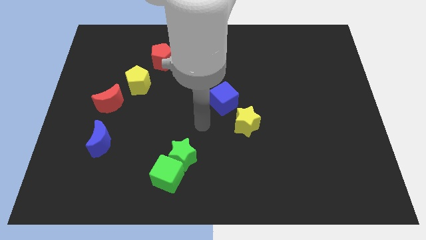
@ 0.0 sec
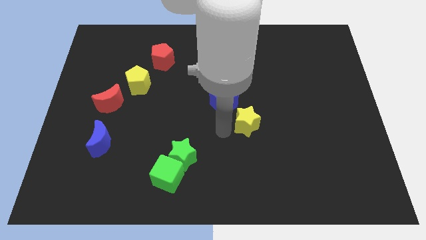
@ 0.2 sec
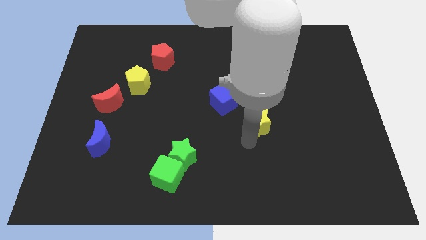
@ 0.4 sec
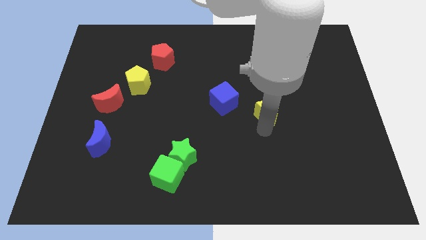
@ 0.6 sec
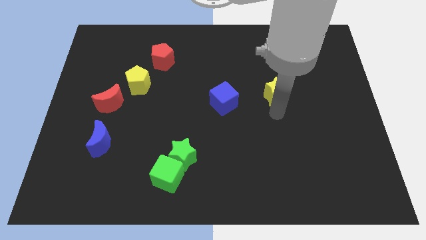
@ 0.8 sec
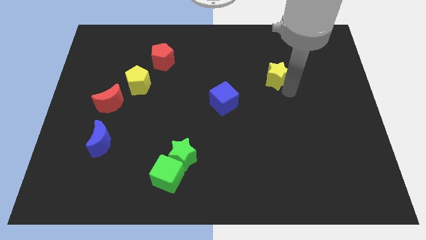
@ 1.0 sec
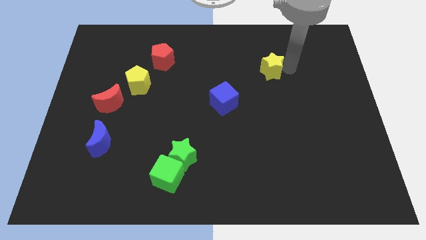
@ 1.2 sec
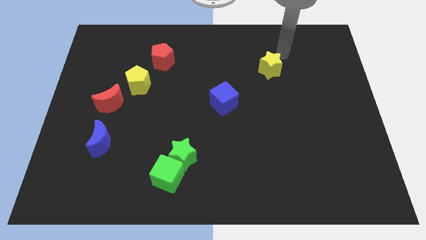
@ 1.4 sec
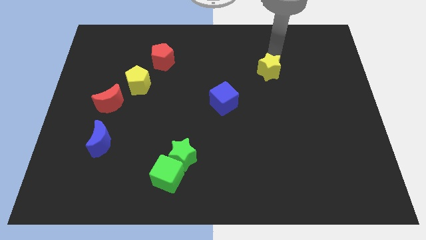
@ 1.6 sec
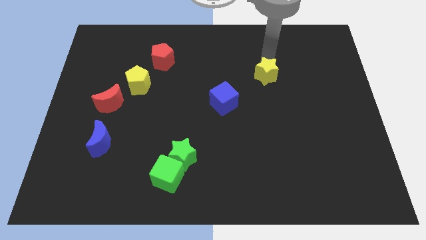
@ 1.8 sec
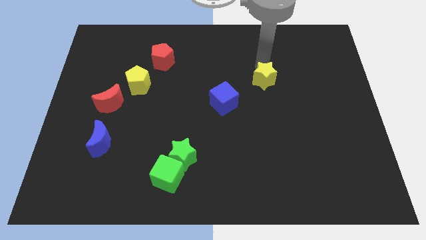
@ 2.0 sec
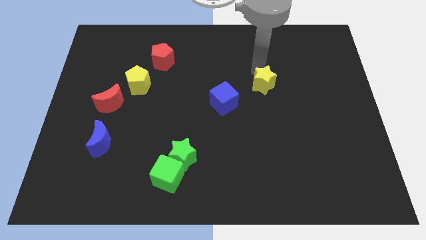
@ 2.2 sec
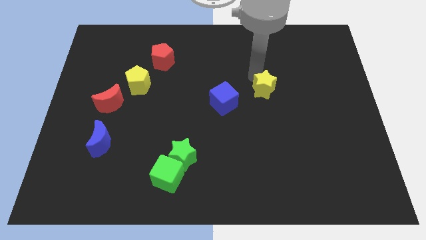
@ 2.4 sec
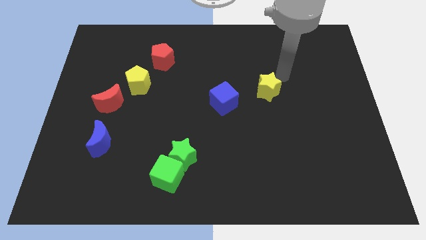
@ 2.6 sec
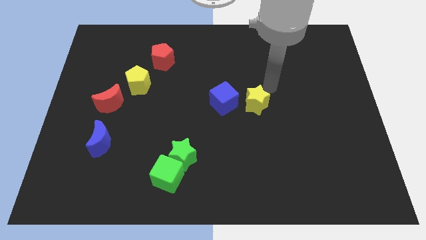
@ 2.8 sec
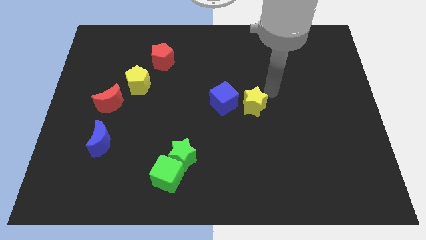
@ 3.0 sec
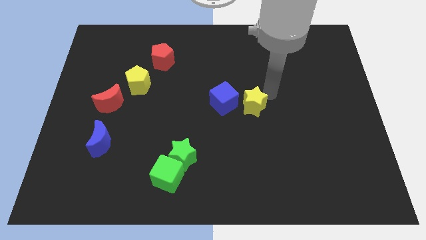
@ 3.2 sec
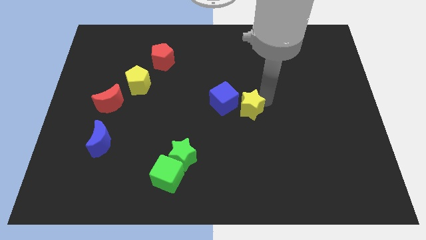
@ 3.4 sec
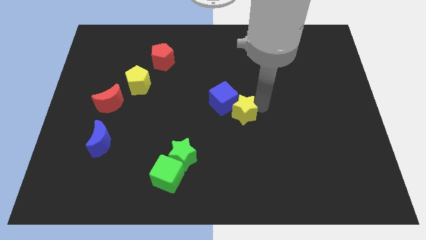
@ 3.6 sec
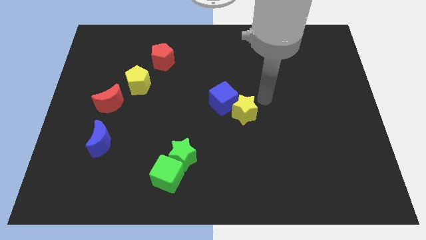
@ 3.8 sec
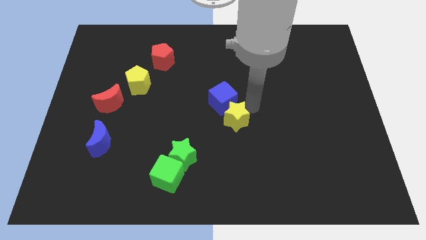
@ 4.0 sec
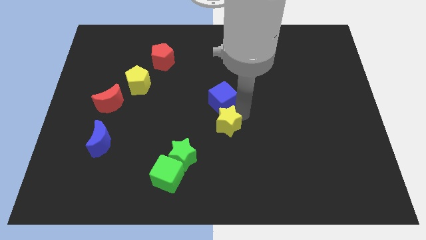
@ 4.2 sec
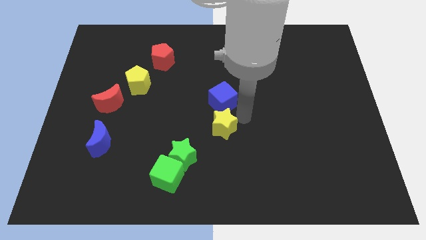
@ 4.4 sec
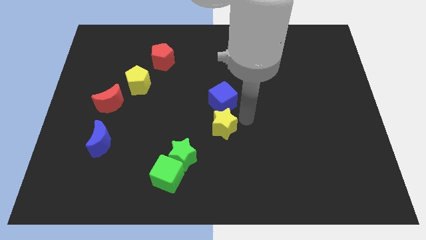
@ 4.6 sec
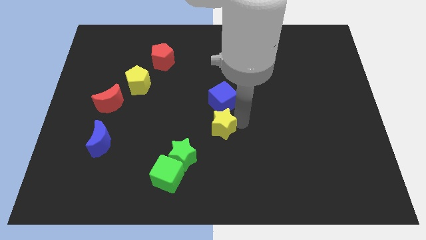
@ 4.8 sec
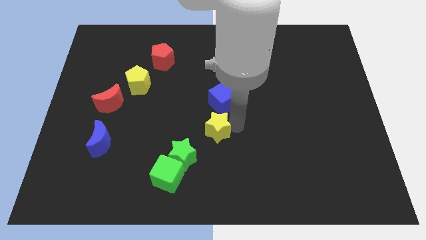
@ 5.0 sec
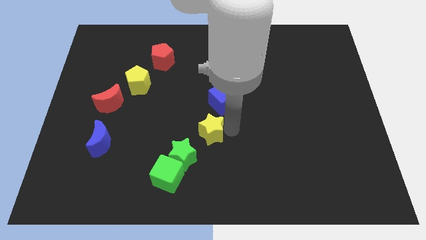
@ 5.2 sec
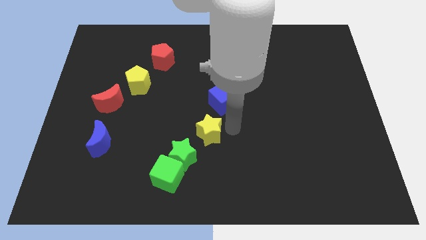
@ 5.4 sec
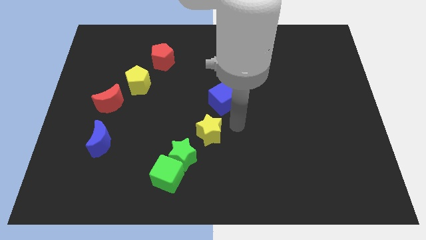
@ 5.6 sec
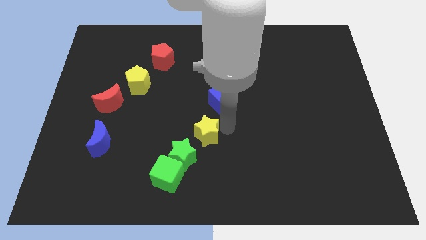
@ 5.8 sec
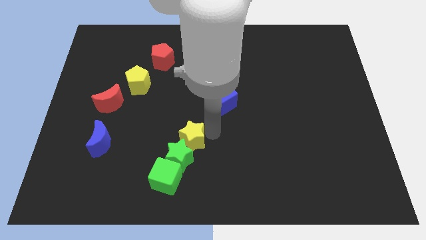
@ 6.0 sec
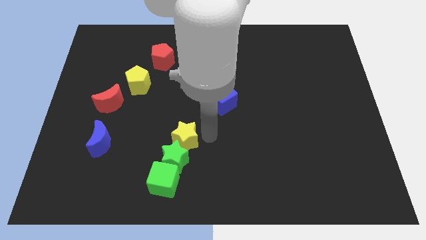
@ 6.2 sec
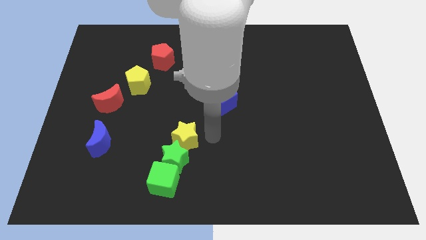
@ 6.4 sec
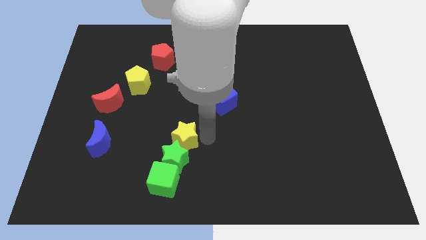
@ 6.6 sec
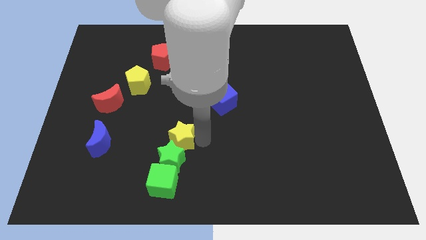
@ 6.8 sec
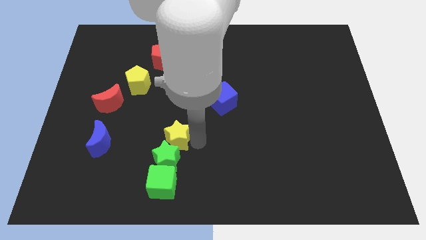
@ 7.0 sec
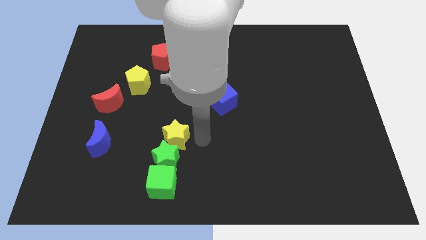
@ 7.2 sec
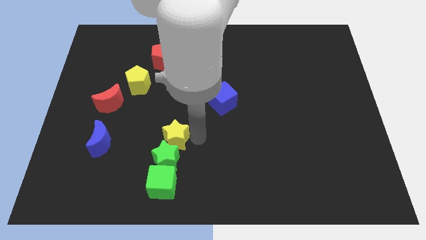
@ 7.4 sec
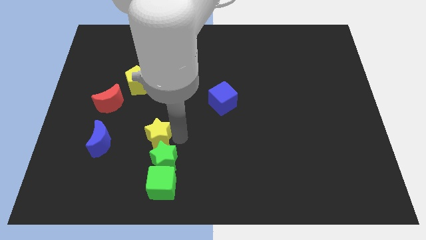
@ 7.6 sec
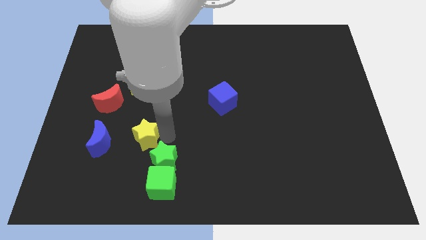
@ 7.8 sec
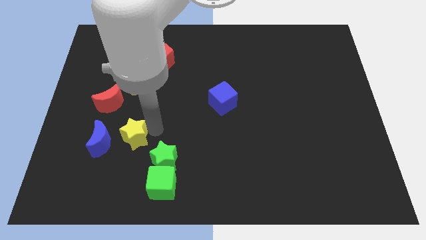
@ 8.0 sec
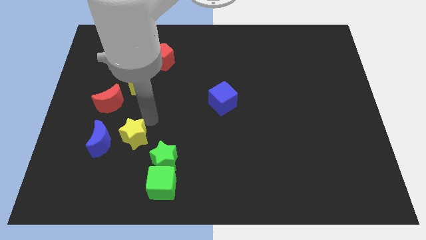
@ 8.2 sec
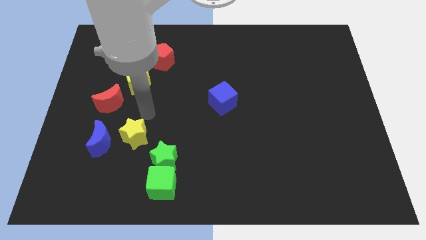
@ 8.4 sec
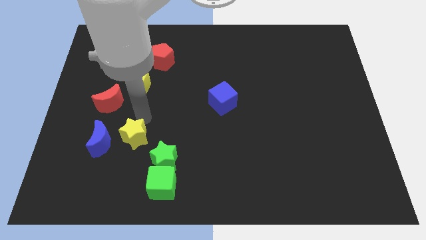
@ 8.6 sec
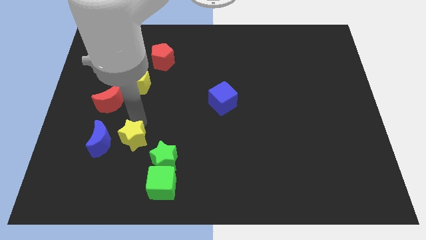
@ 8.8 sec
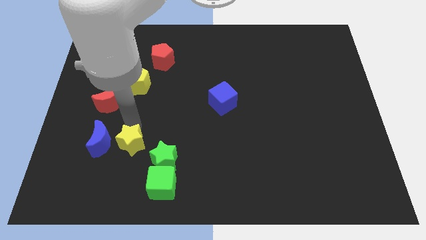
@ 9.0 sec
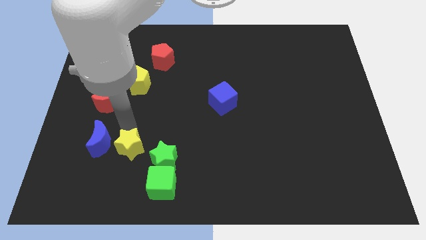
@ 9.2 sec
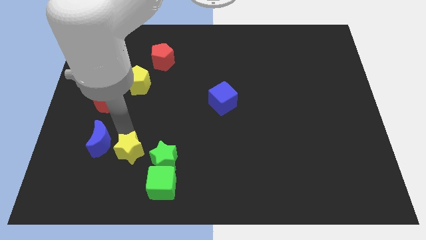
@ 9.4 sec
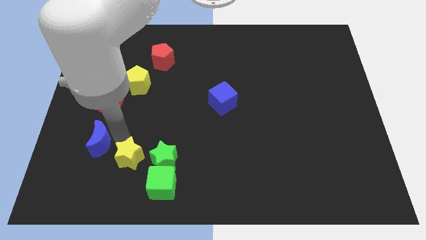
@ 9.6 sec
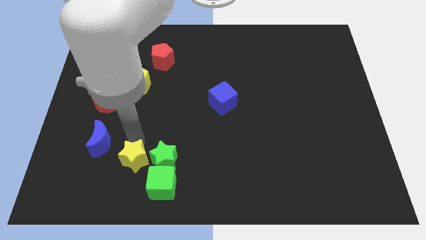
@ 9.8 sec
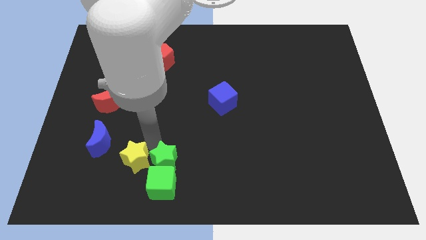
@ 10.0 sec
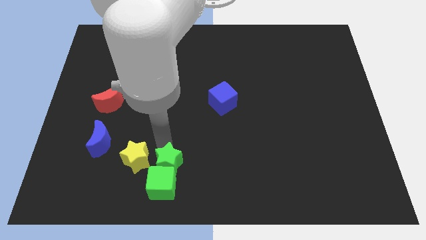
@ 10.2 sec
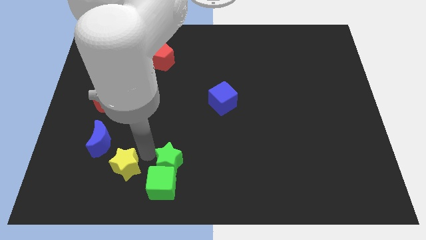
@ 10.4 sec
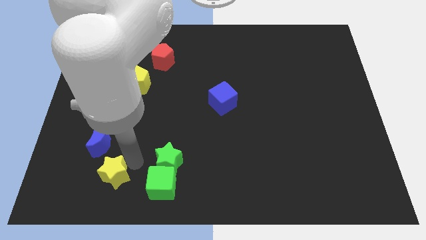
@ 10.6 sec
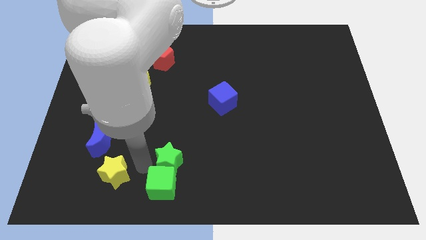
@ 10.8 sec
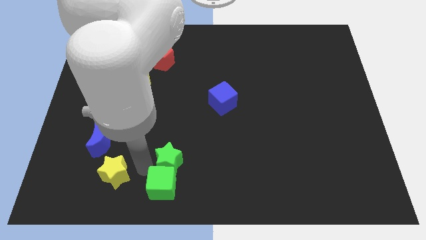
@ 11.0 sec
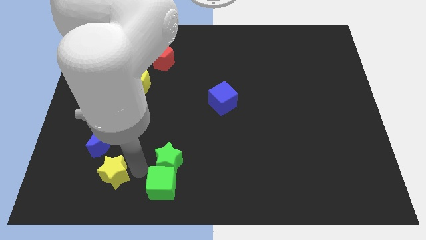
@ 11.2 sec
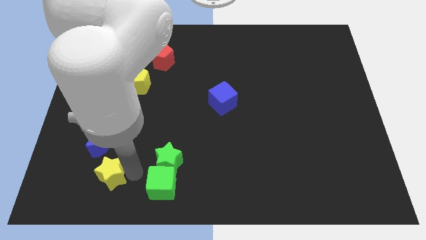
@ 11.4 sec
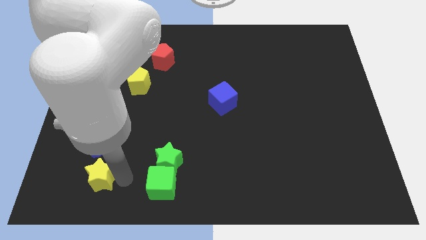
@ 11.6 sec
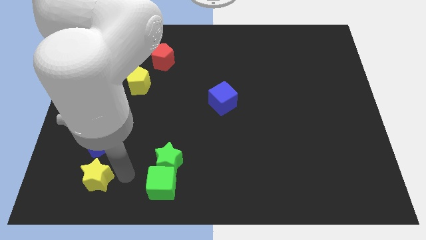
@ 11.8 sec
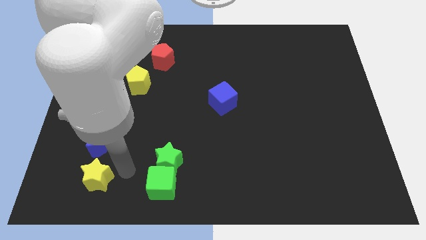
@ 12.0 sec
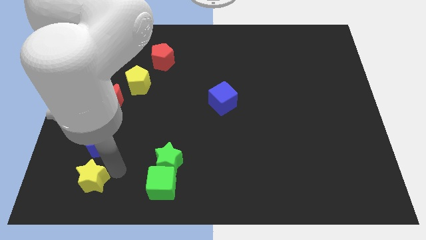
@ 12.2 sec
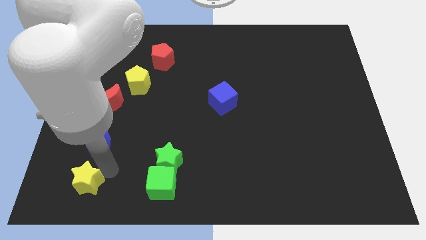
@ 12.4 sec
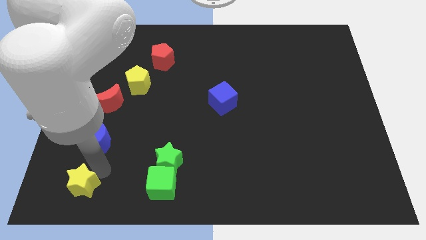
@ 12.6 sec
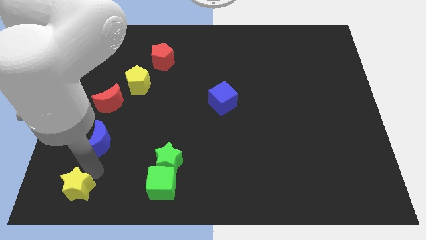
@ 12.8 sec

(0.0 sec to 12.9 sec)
slide the yellow star to the bottom left corner

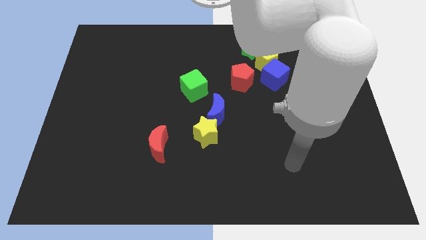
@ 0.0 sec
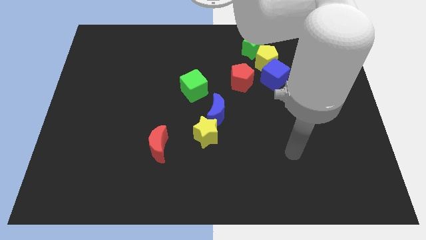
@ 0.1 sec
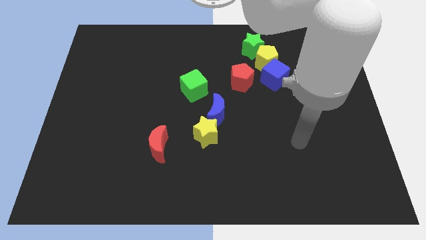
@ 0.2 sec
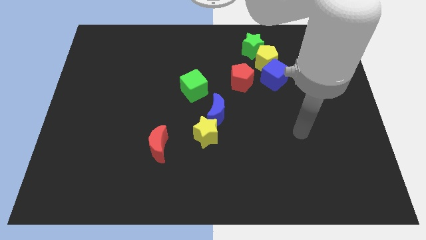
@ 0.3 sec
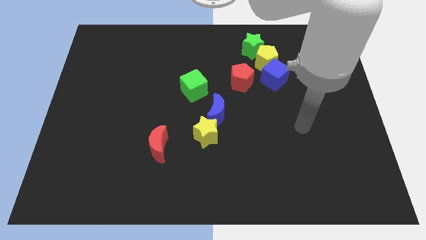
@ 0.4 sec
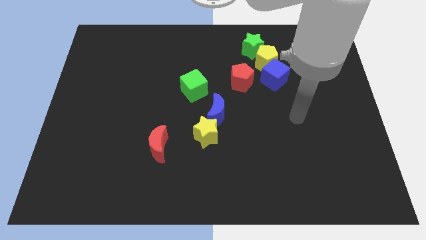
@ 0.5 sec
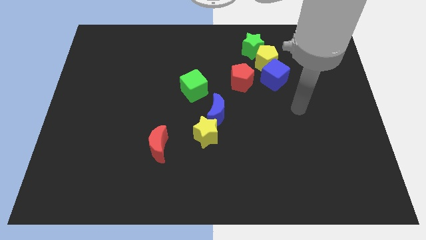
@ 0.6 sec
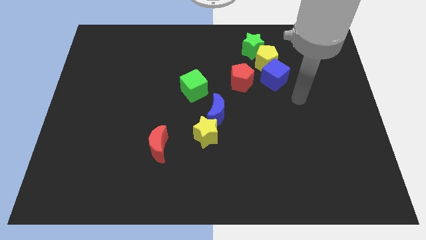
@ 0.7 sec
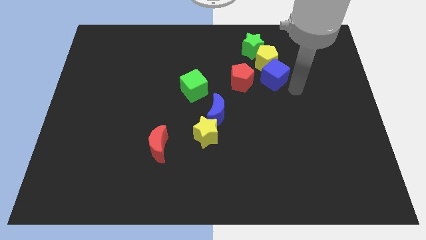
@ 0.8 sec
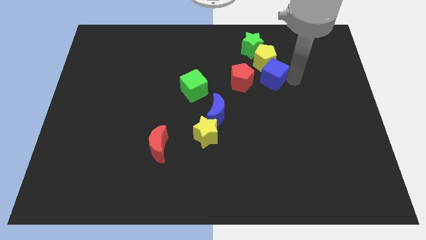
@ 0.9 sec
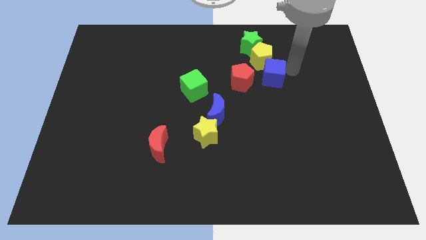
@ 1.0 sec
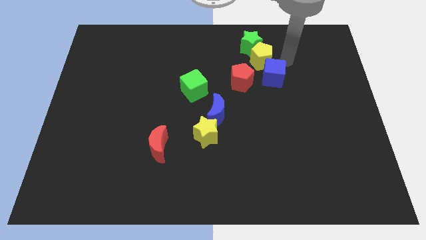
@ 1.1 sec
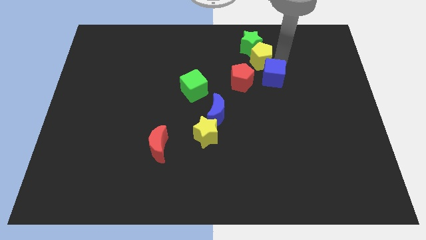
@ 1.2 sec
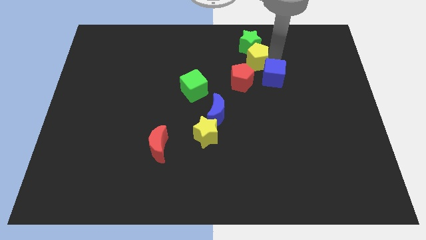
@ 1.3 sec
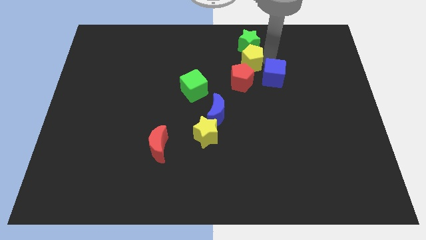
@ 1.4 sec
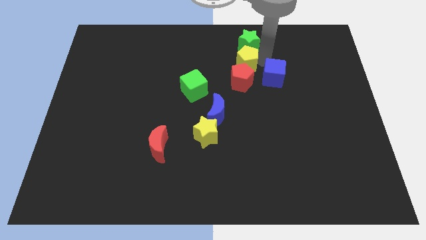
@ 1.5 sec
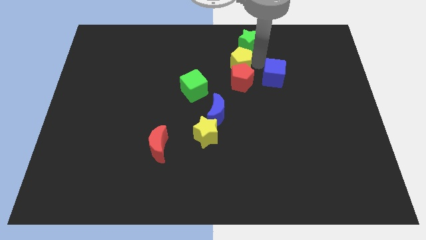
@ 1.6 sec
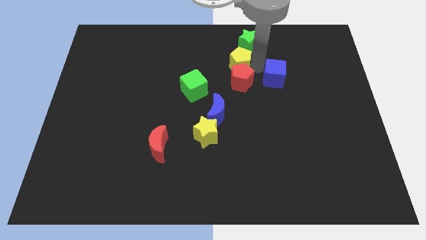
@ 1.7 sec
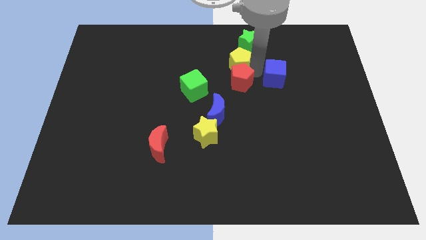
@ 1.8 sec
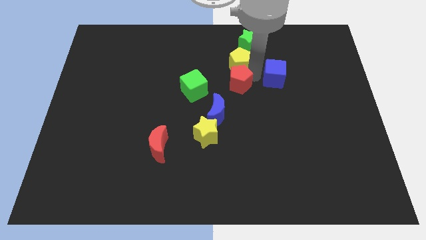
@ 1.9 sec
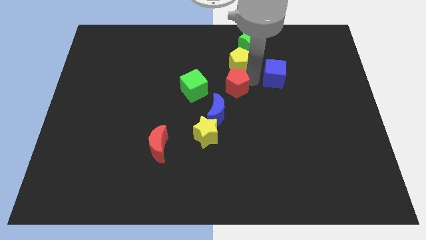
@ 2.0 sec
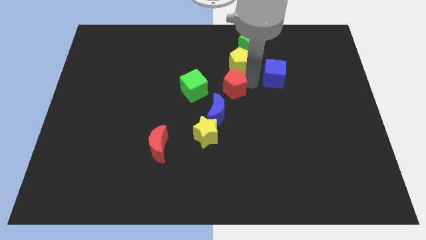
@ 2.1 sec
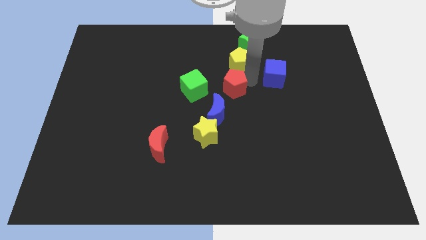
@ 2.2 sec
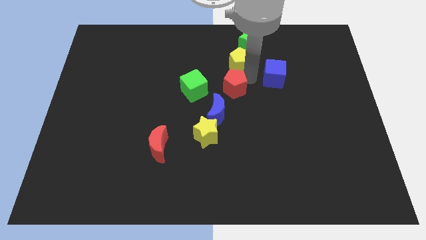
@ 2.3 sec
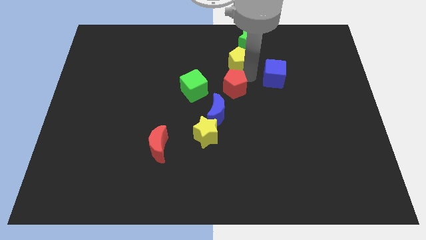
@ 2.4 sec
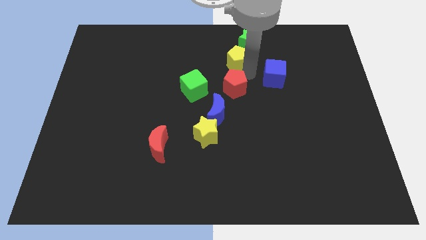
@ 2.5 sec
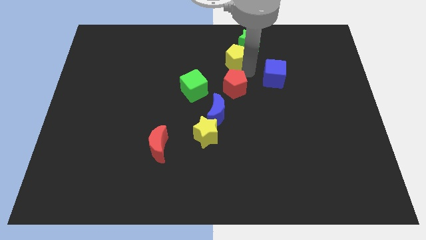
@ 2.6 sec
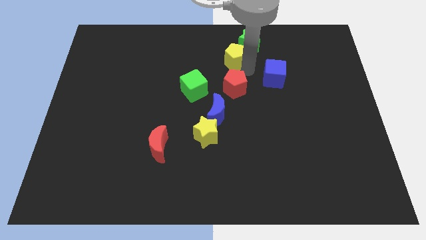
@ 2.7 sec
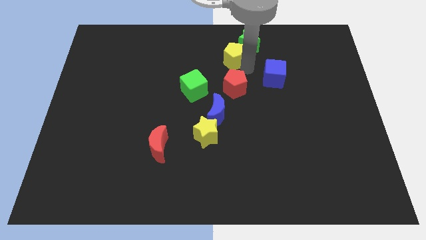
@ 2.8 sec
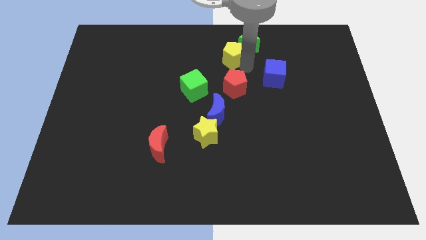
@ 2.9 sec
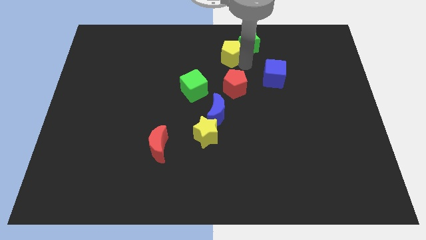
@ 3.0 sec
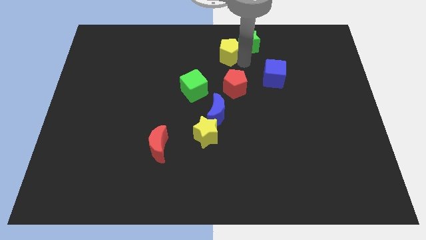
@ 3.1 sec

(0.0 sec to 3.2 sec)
put the yellow pentagon to the top
